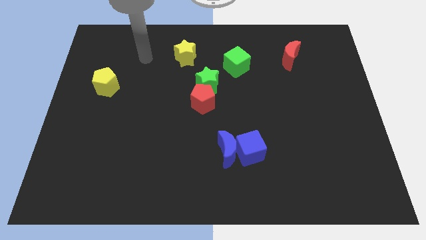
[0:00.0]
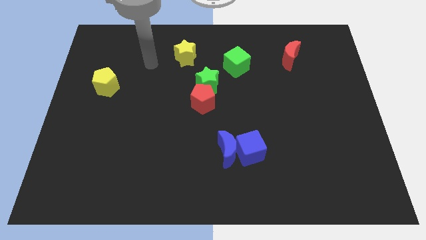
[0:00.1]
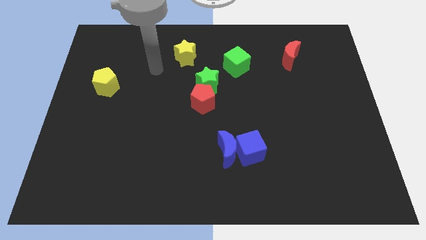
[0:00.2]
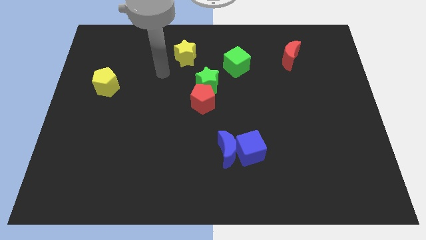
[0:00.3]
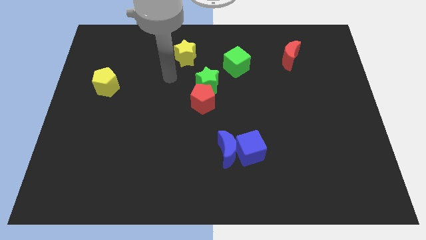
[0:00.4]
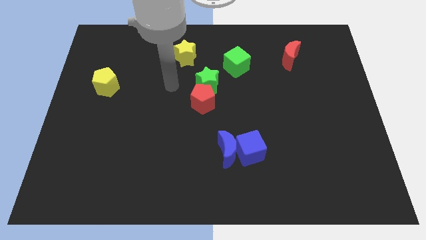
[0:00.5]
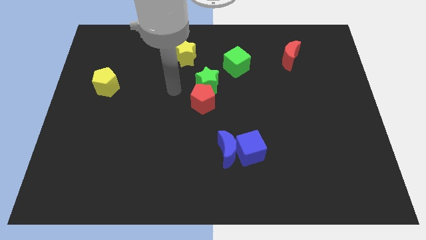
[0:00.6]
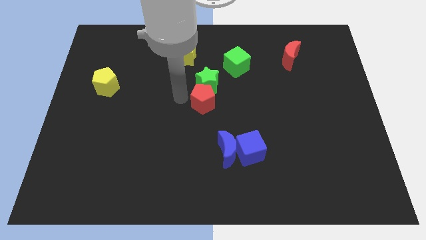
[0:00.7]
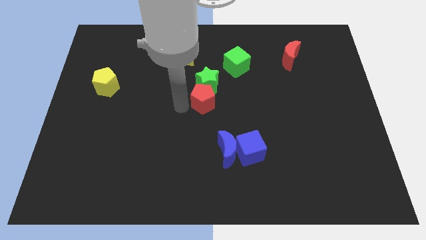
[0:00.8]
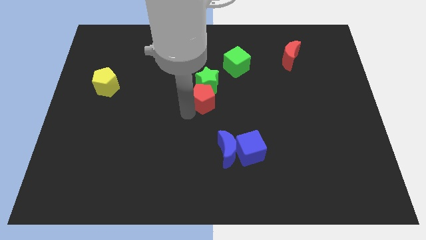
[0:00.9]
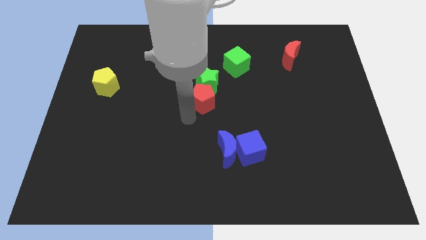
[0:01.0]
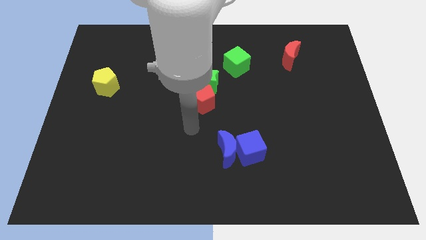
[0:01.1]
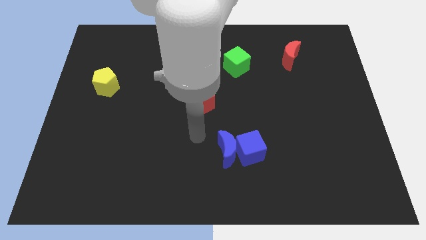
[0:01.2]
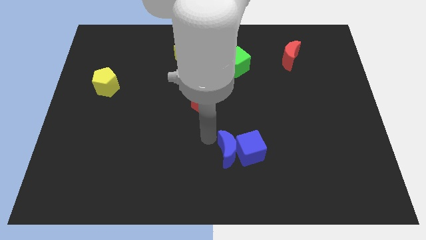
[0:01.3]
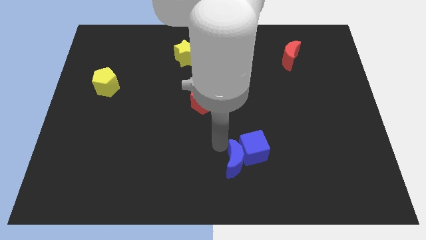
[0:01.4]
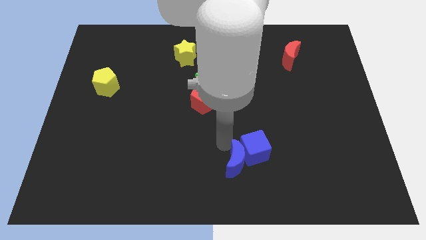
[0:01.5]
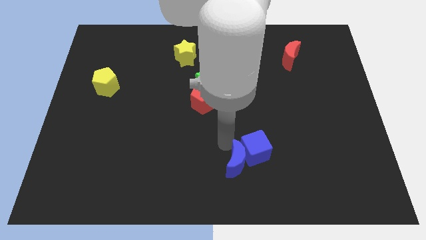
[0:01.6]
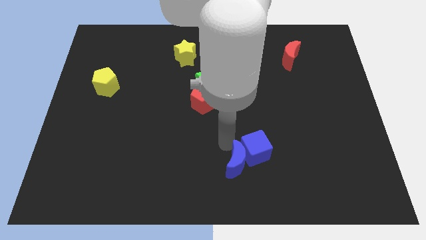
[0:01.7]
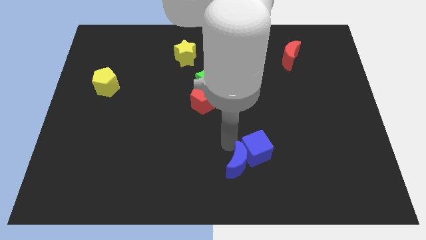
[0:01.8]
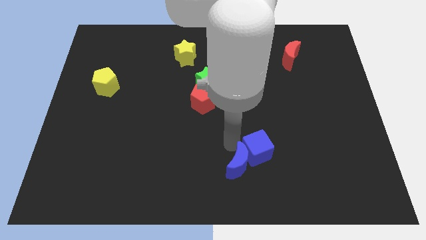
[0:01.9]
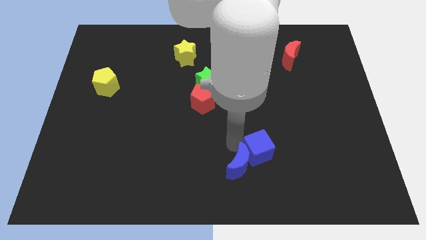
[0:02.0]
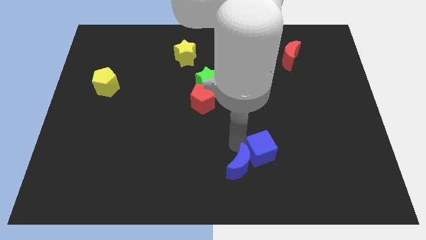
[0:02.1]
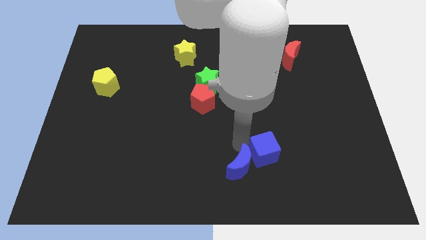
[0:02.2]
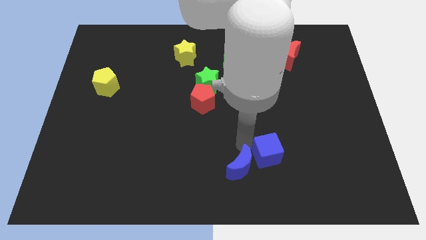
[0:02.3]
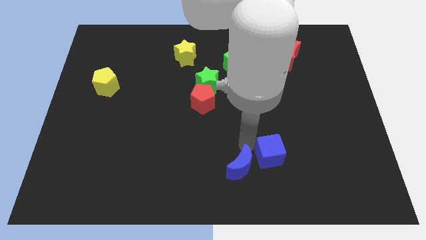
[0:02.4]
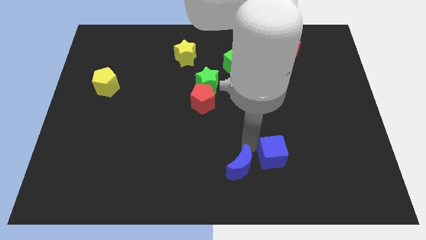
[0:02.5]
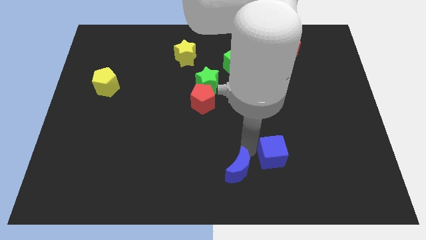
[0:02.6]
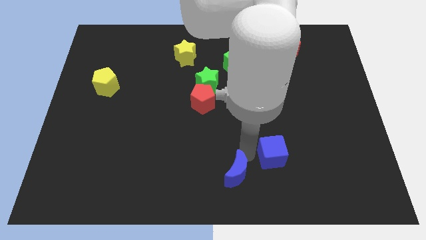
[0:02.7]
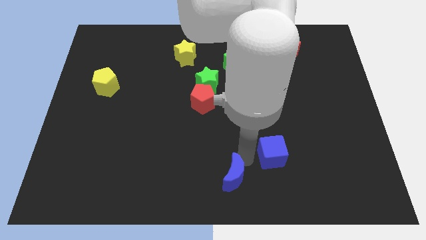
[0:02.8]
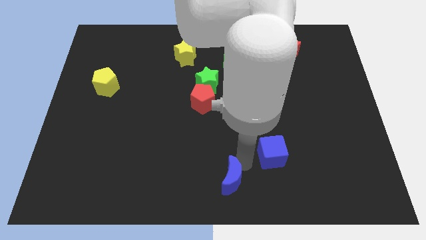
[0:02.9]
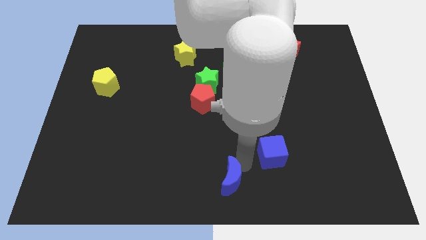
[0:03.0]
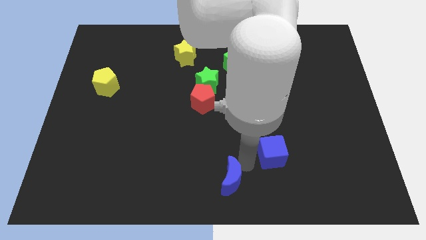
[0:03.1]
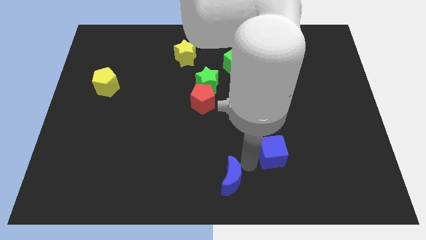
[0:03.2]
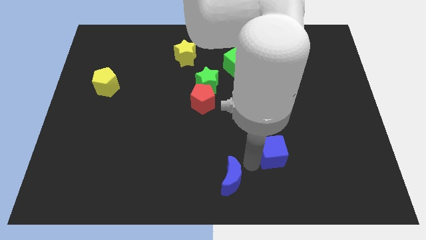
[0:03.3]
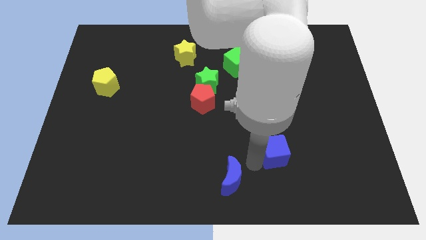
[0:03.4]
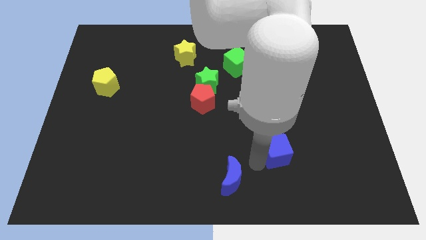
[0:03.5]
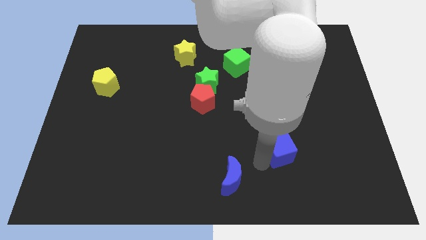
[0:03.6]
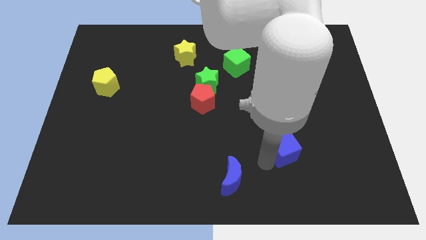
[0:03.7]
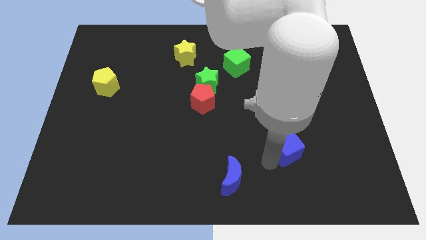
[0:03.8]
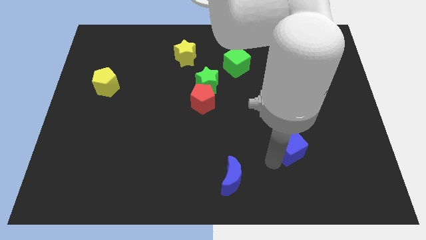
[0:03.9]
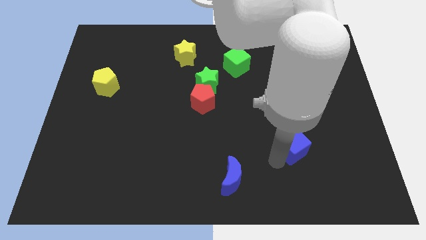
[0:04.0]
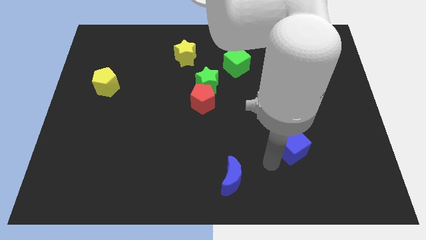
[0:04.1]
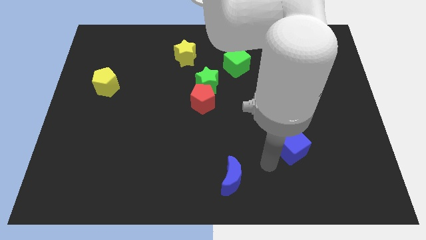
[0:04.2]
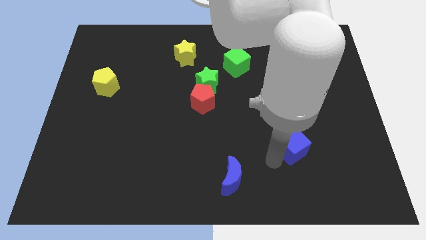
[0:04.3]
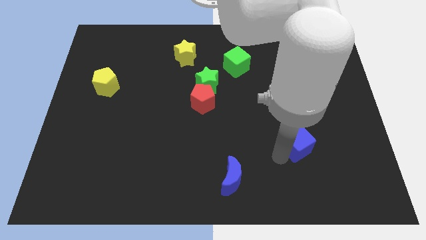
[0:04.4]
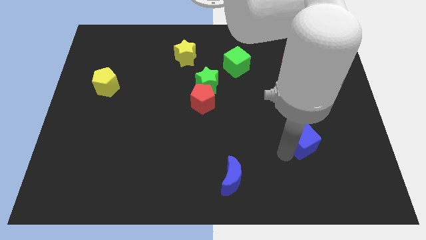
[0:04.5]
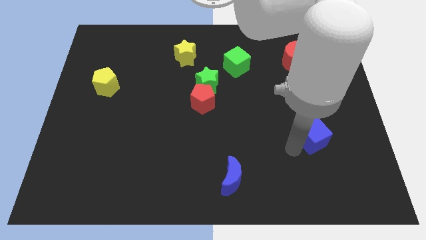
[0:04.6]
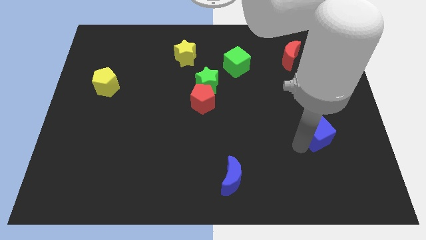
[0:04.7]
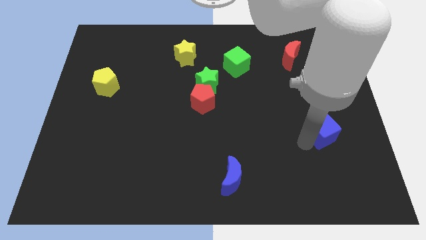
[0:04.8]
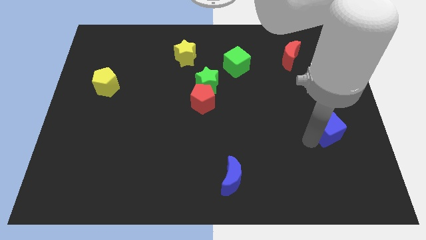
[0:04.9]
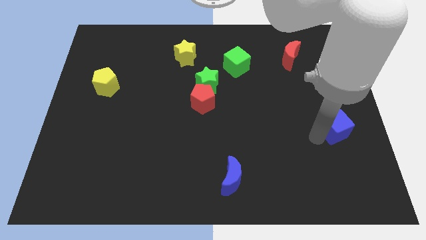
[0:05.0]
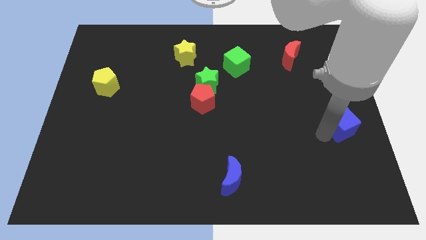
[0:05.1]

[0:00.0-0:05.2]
push the blue cube to the right side of the board

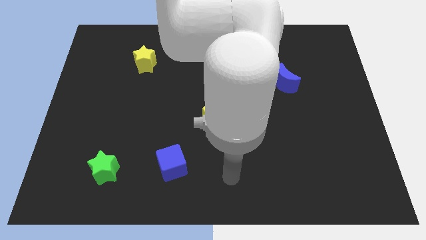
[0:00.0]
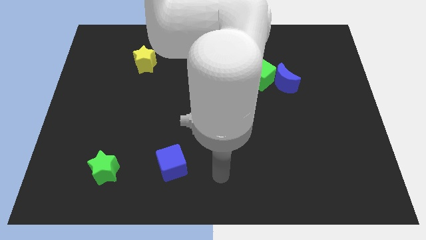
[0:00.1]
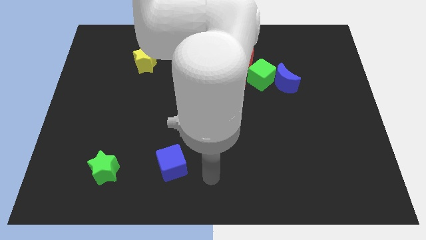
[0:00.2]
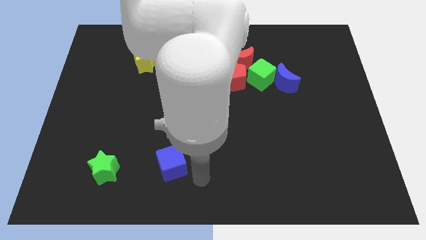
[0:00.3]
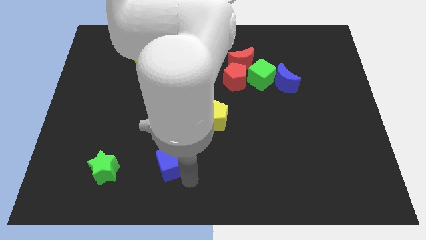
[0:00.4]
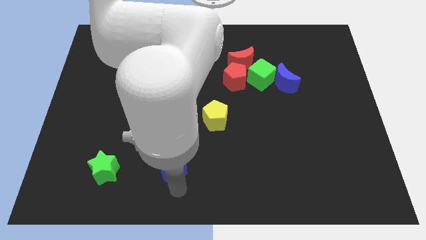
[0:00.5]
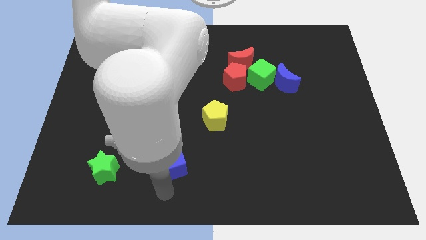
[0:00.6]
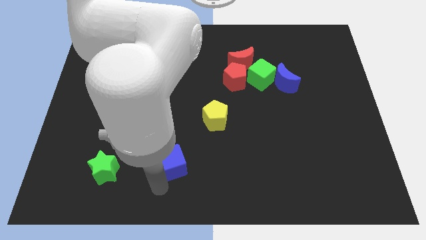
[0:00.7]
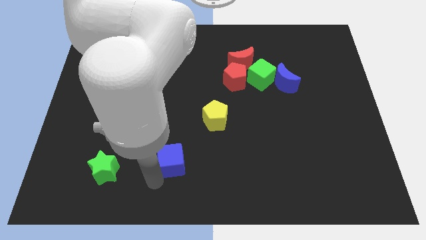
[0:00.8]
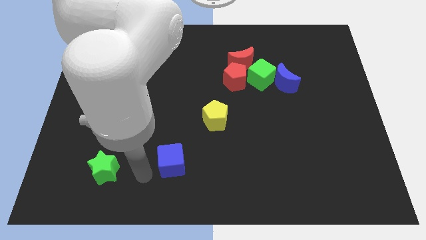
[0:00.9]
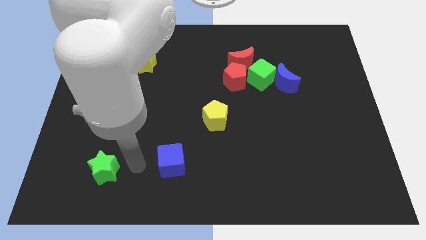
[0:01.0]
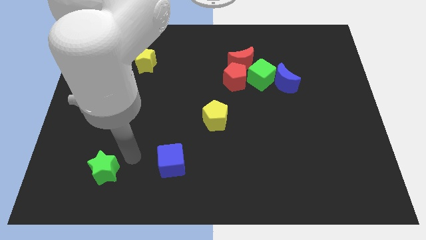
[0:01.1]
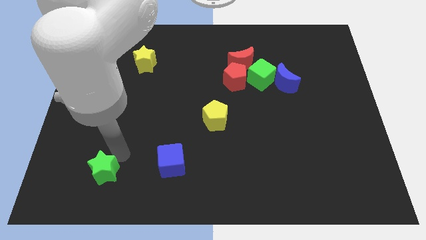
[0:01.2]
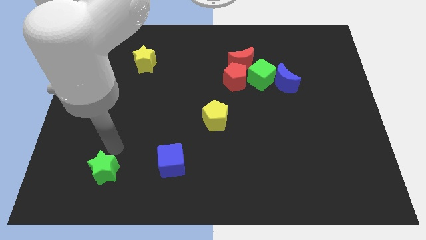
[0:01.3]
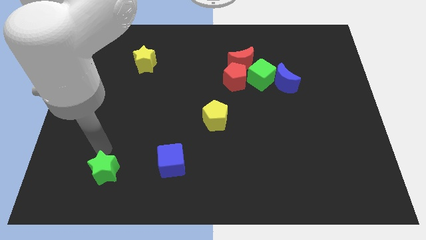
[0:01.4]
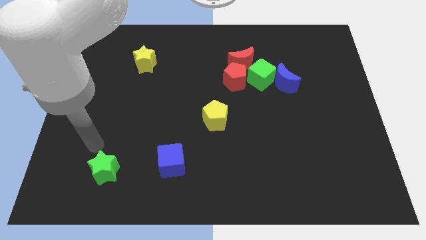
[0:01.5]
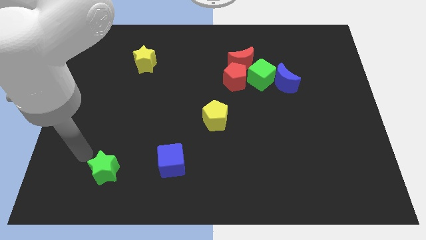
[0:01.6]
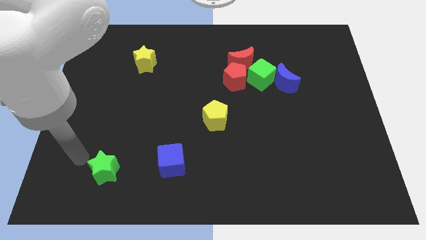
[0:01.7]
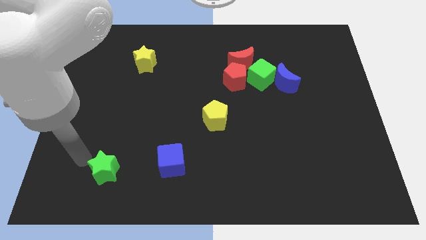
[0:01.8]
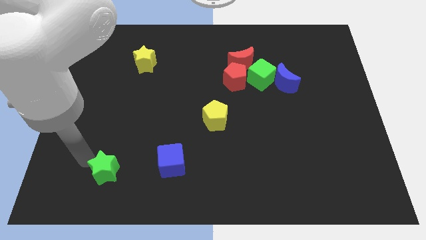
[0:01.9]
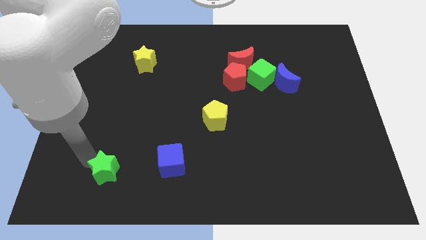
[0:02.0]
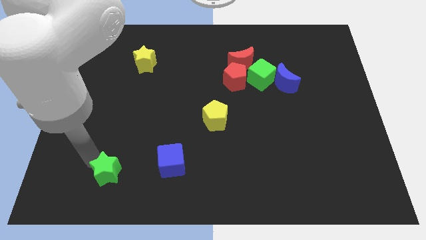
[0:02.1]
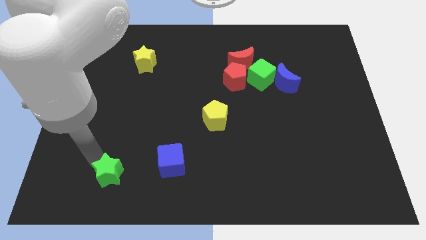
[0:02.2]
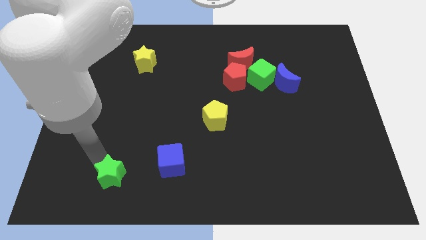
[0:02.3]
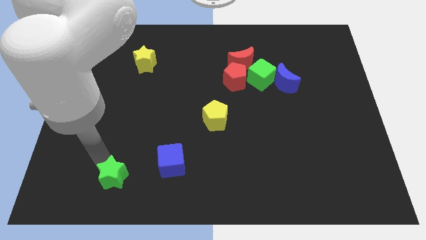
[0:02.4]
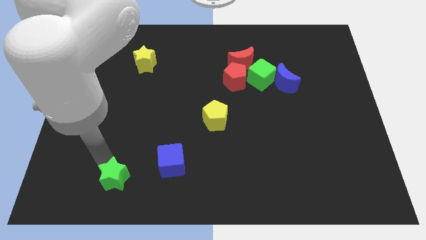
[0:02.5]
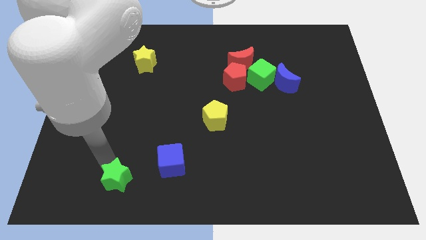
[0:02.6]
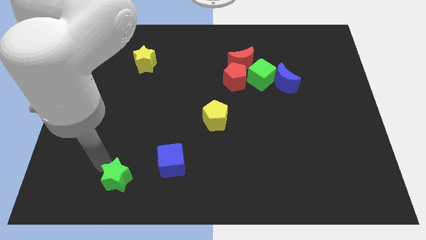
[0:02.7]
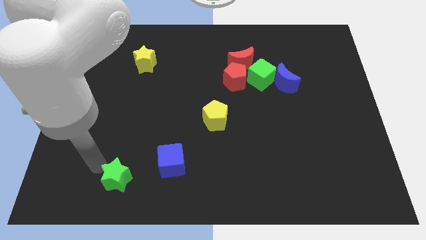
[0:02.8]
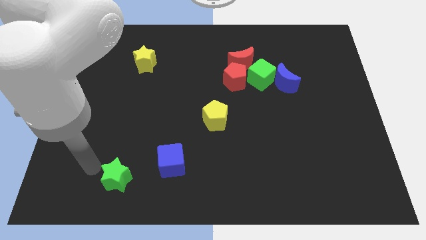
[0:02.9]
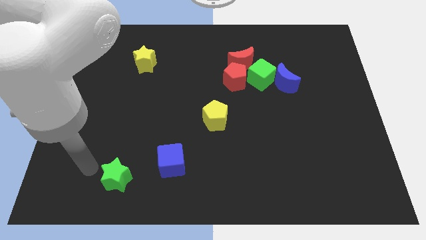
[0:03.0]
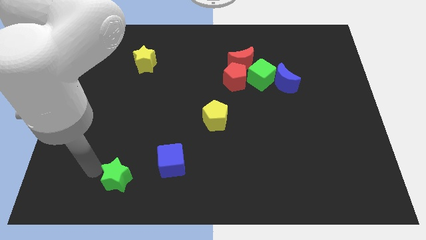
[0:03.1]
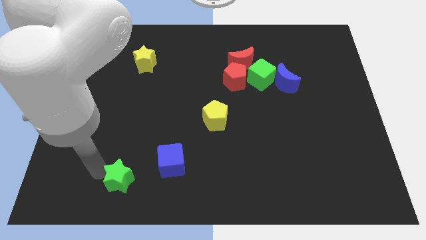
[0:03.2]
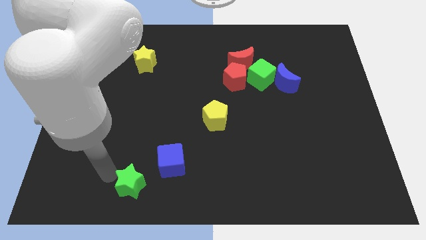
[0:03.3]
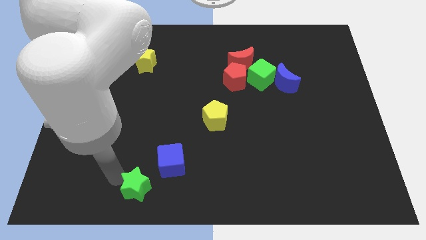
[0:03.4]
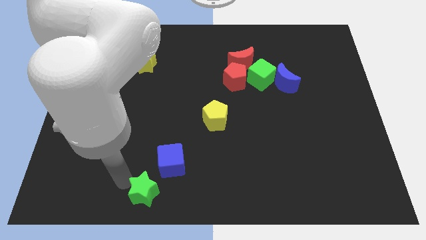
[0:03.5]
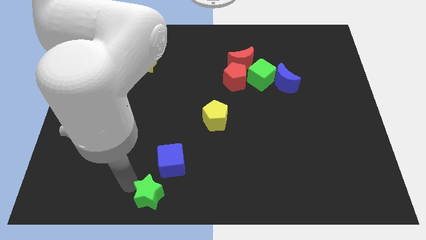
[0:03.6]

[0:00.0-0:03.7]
slide the green star to the bottom
